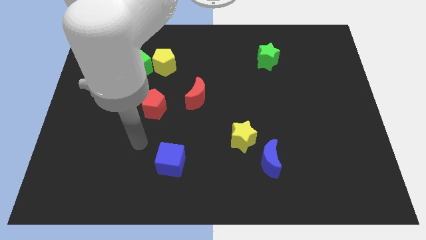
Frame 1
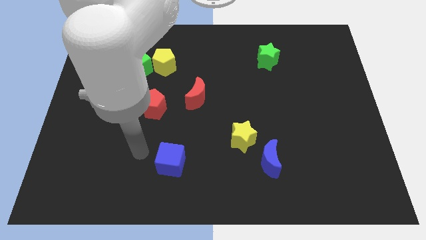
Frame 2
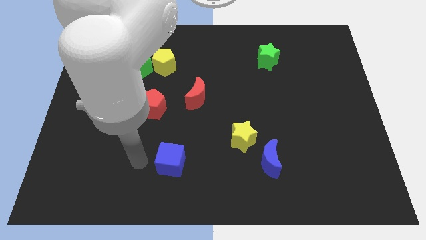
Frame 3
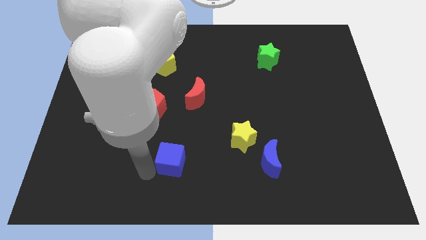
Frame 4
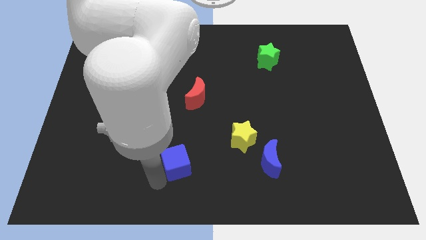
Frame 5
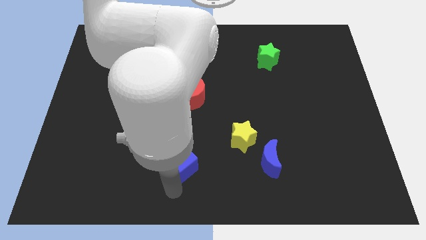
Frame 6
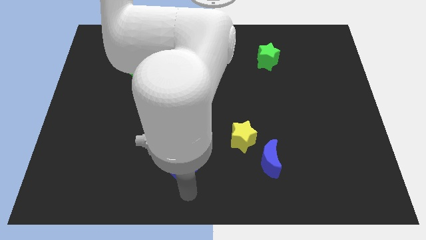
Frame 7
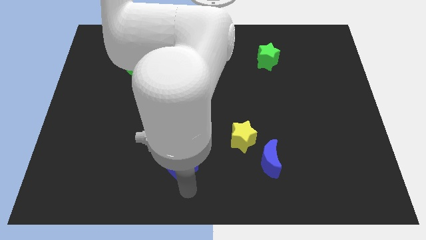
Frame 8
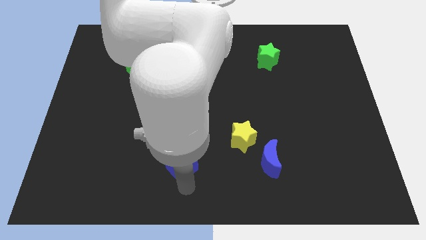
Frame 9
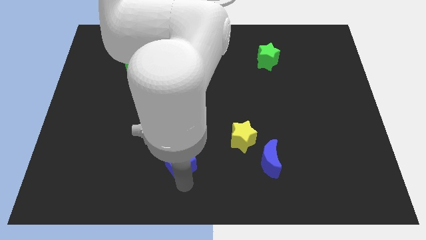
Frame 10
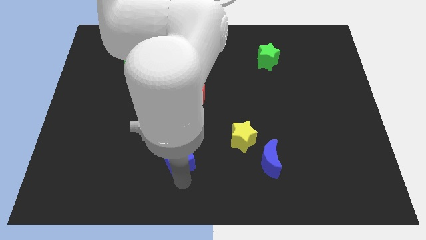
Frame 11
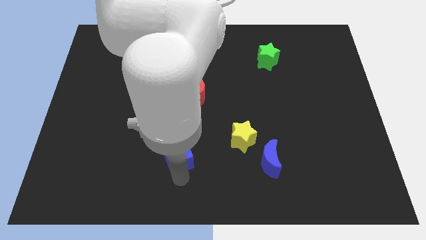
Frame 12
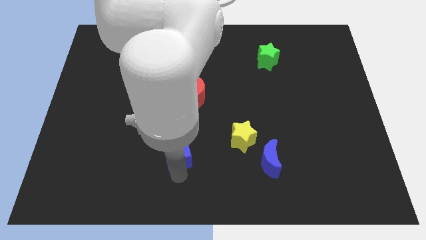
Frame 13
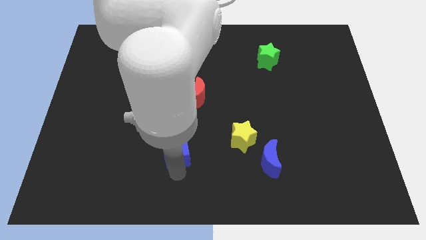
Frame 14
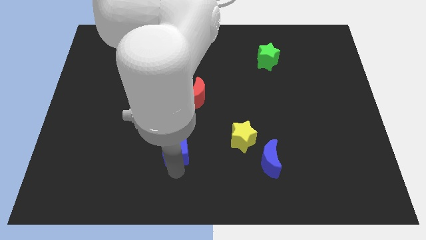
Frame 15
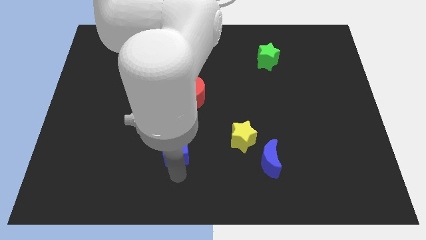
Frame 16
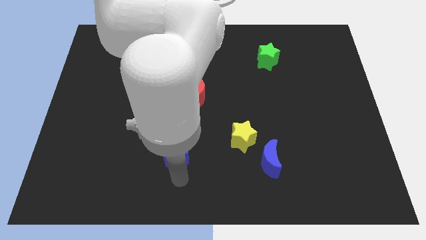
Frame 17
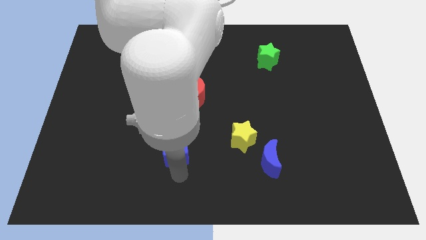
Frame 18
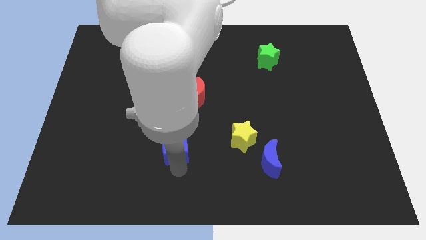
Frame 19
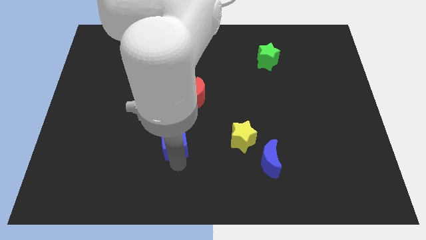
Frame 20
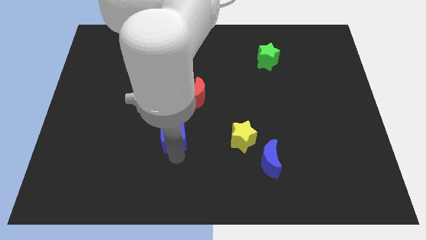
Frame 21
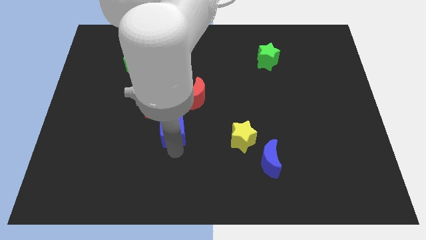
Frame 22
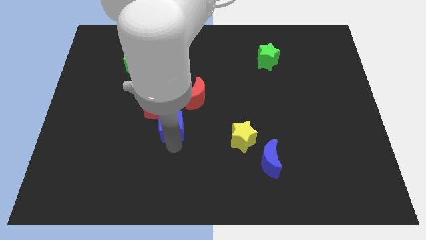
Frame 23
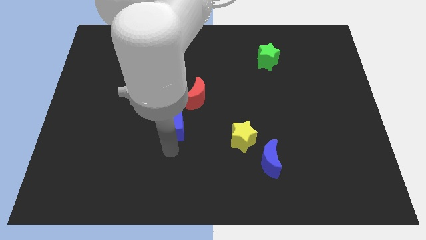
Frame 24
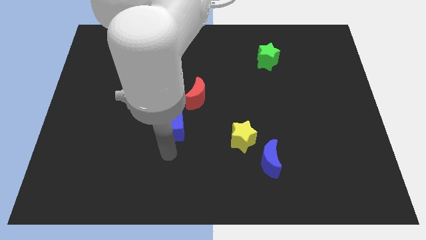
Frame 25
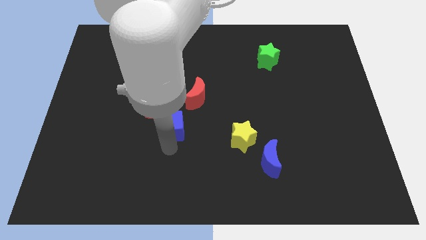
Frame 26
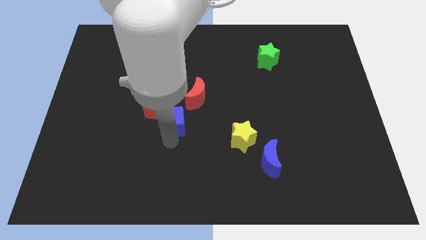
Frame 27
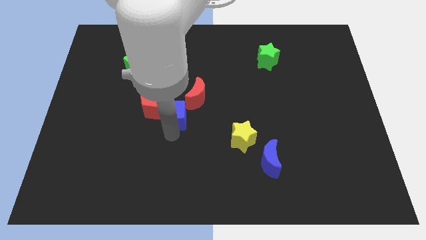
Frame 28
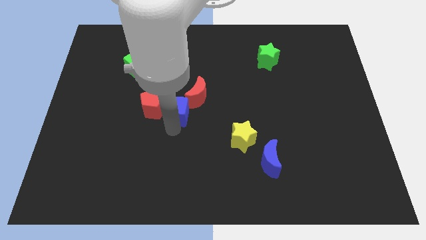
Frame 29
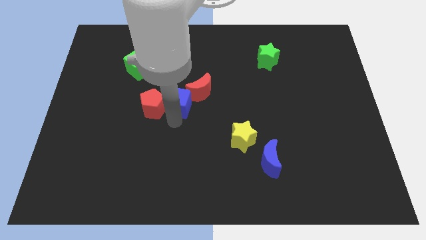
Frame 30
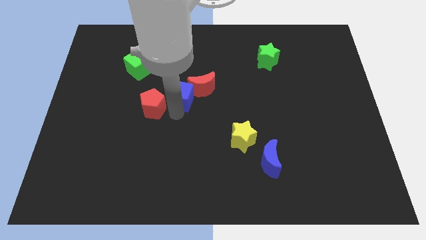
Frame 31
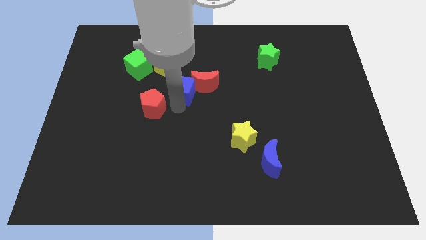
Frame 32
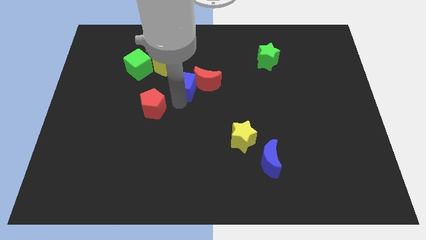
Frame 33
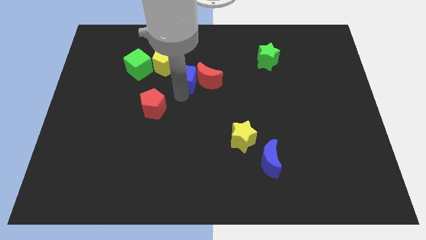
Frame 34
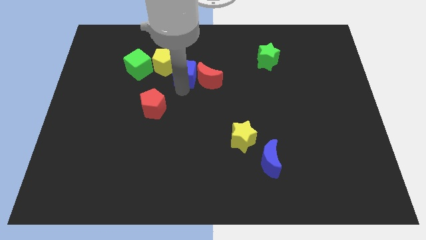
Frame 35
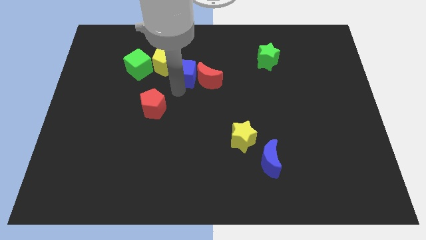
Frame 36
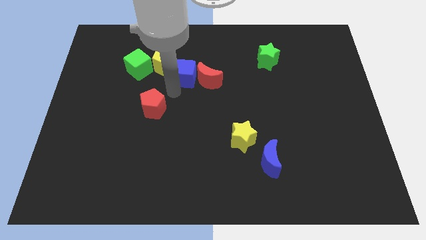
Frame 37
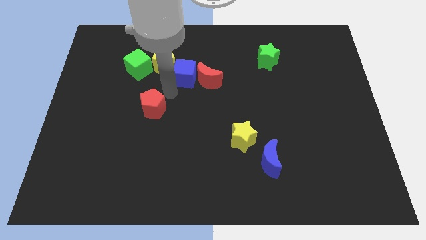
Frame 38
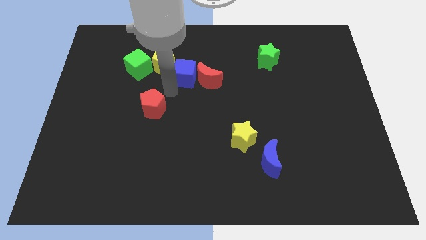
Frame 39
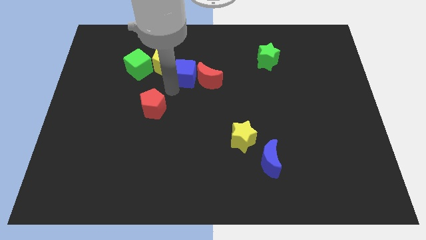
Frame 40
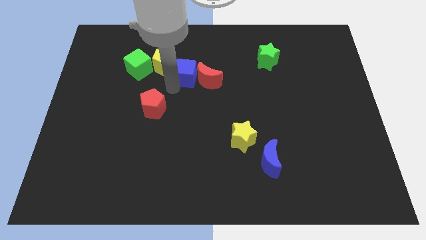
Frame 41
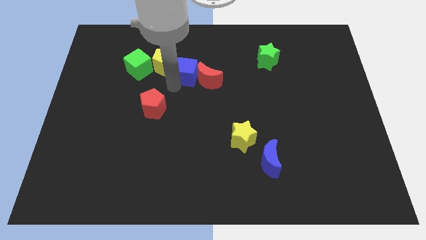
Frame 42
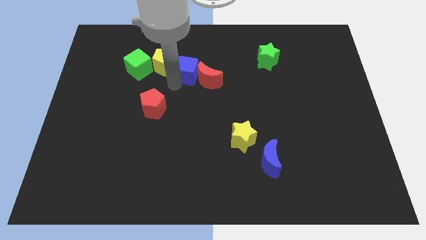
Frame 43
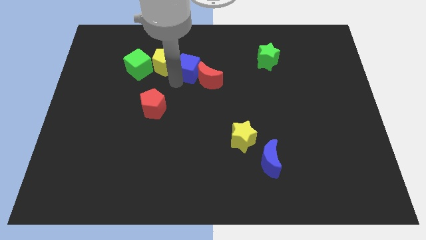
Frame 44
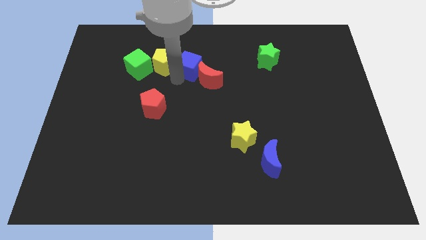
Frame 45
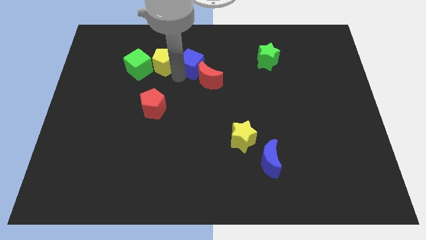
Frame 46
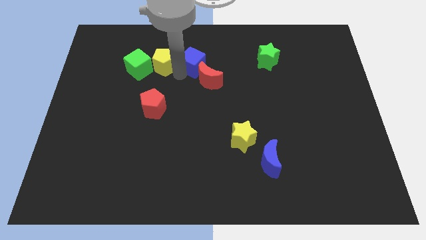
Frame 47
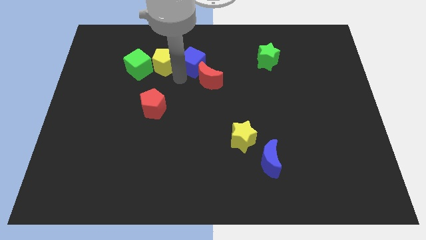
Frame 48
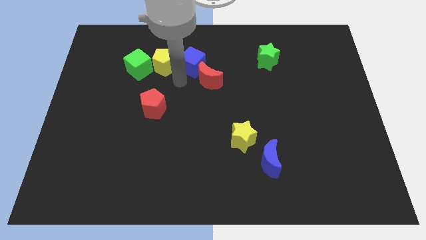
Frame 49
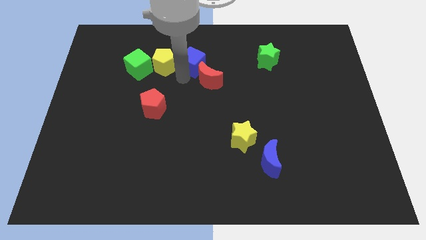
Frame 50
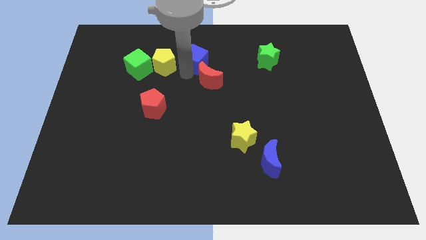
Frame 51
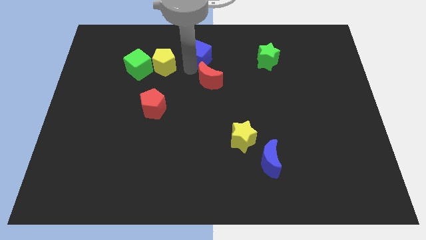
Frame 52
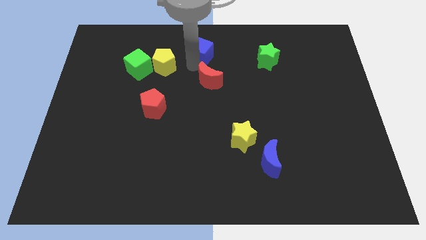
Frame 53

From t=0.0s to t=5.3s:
push the blue cube to the top
